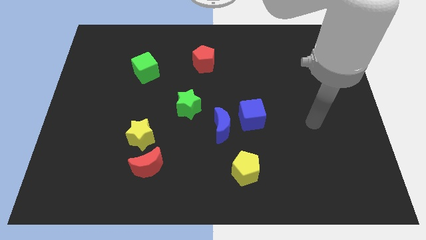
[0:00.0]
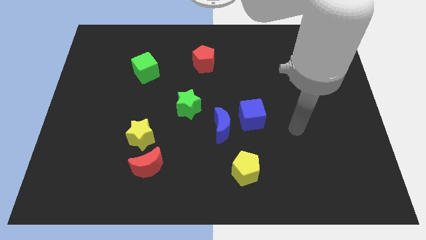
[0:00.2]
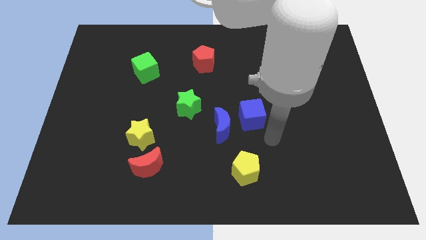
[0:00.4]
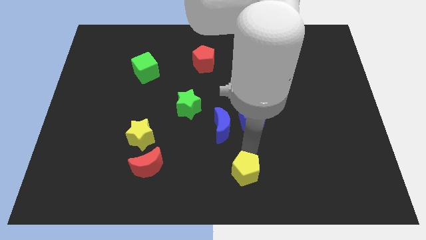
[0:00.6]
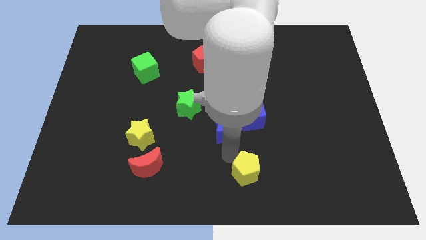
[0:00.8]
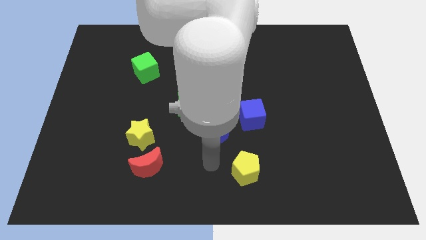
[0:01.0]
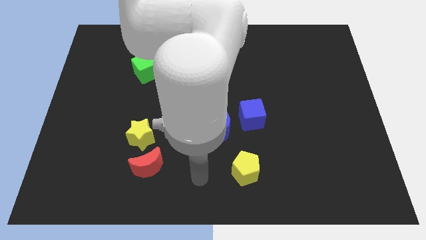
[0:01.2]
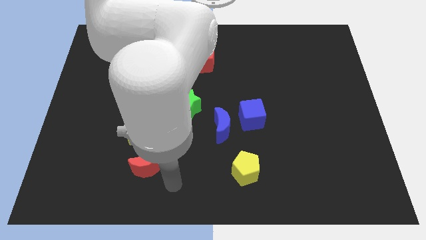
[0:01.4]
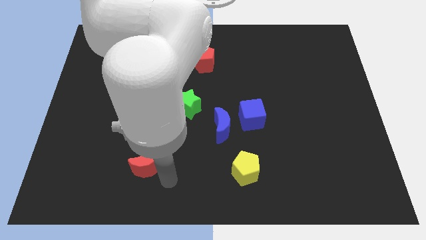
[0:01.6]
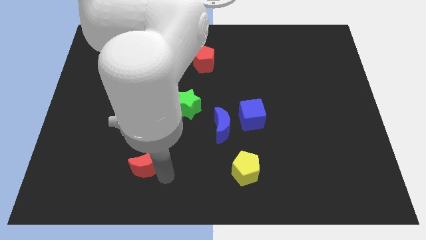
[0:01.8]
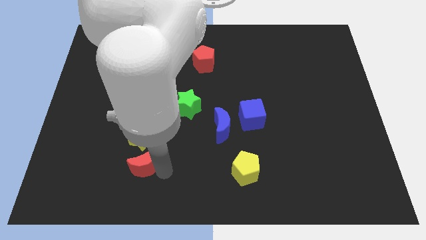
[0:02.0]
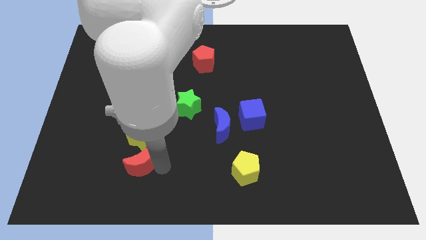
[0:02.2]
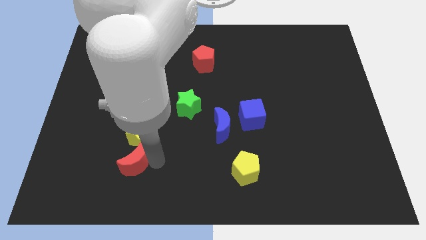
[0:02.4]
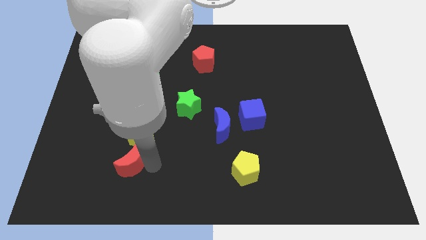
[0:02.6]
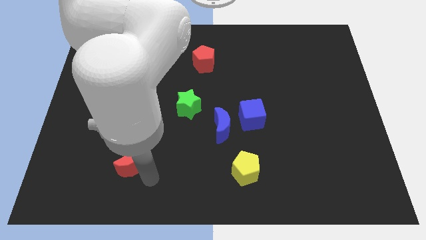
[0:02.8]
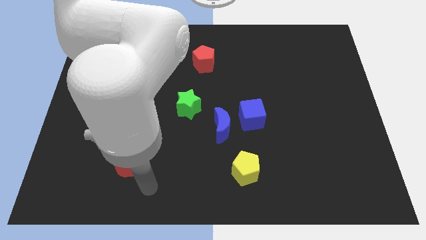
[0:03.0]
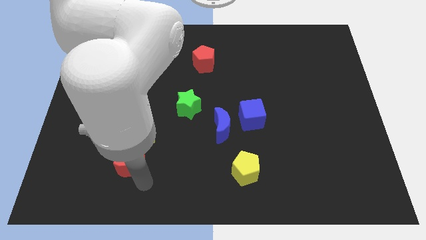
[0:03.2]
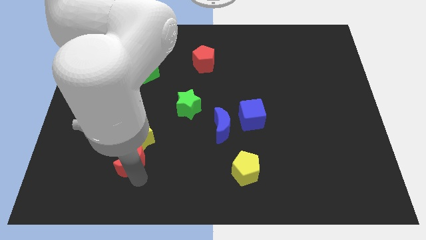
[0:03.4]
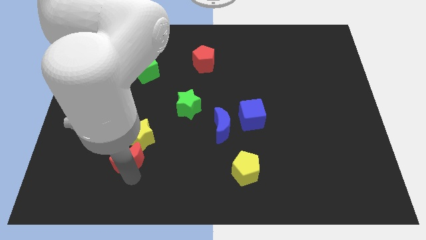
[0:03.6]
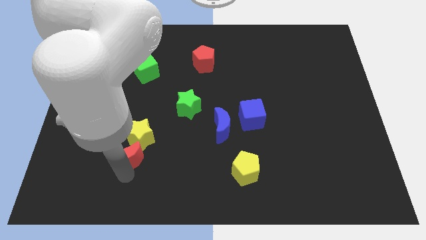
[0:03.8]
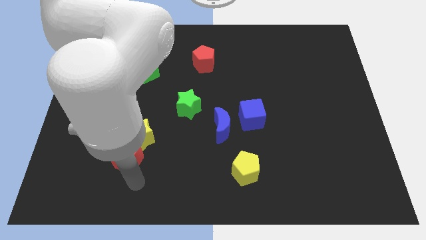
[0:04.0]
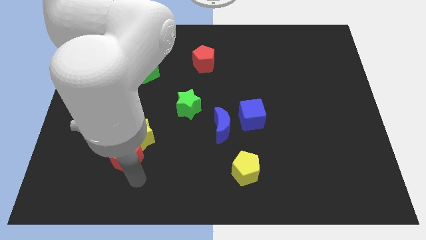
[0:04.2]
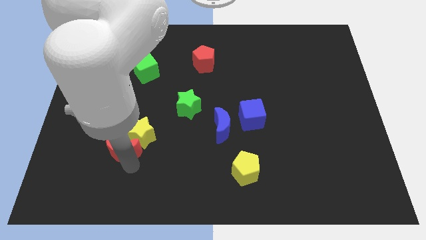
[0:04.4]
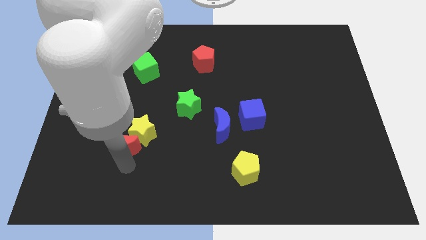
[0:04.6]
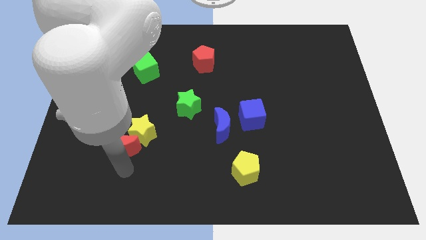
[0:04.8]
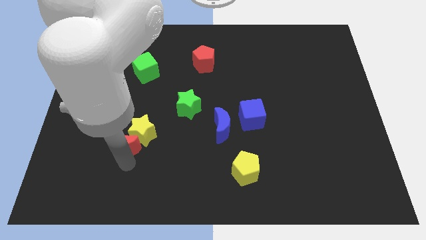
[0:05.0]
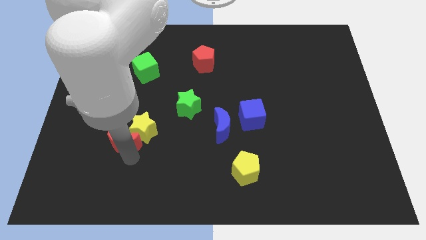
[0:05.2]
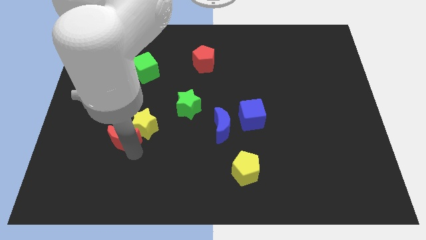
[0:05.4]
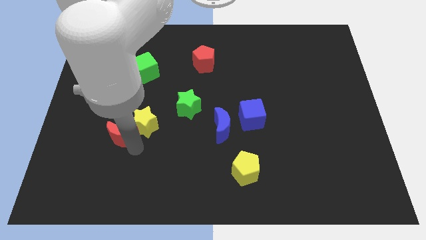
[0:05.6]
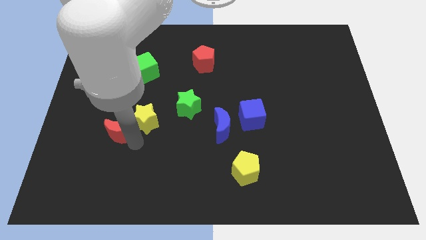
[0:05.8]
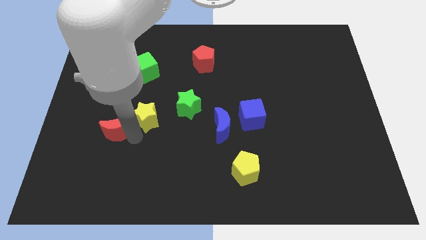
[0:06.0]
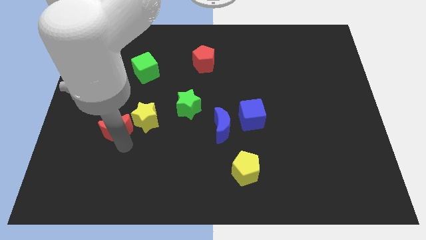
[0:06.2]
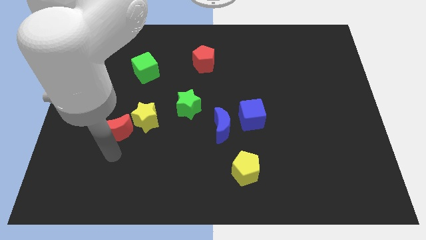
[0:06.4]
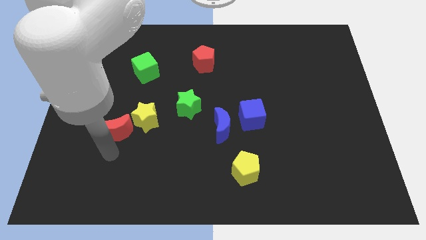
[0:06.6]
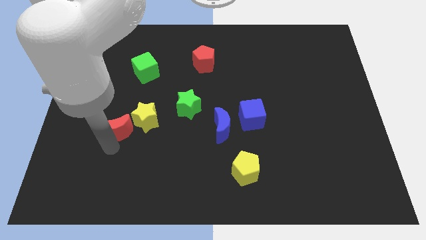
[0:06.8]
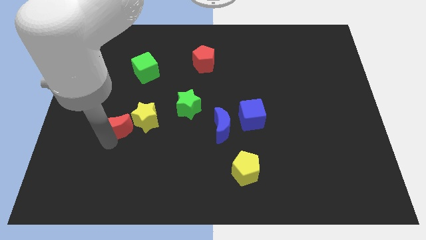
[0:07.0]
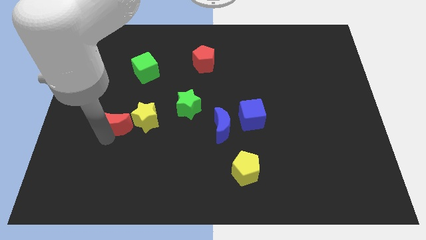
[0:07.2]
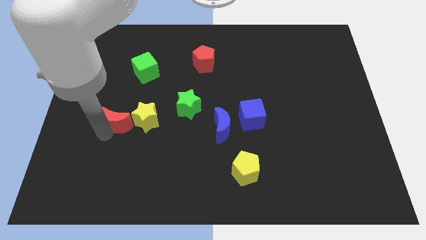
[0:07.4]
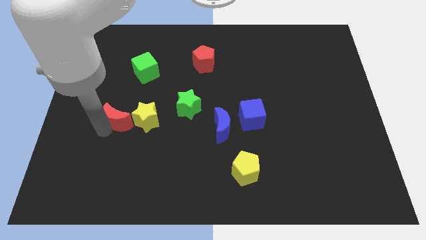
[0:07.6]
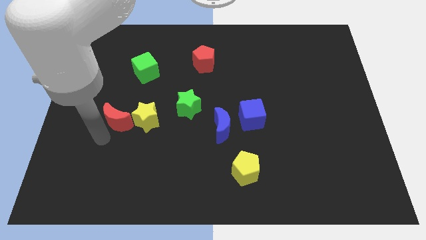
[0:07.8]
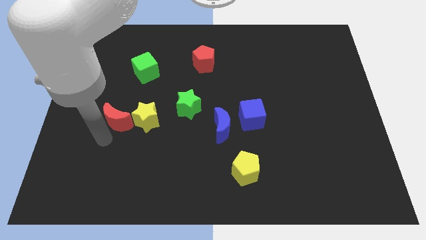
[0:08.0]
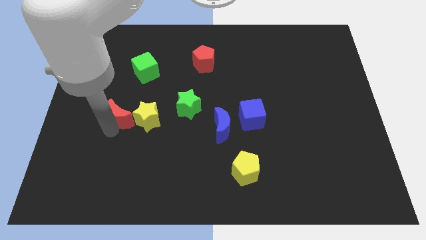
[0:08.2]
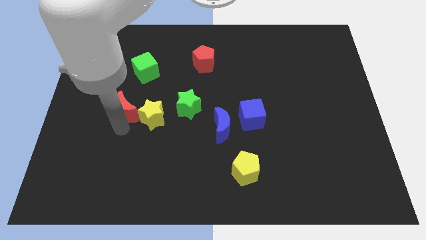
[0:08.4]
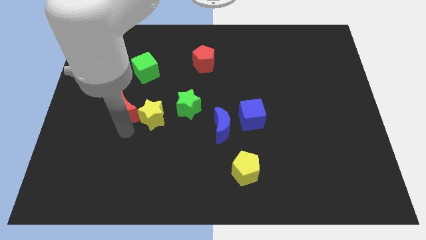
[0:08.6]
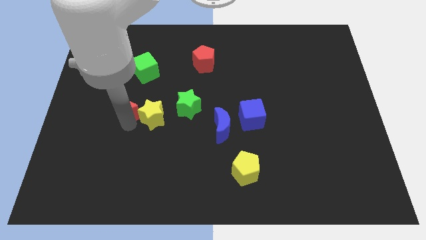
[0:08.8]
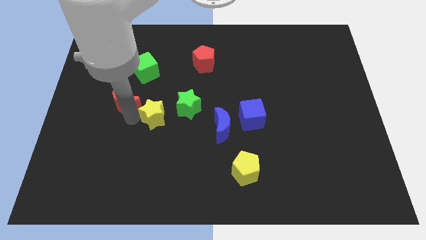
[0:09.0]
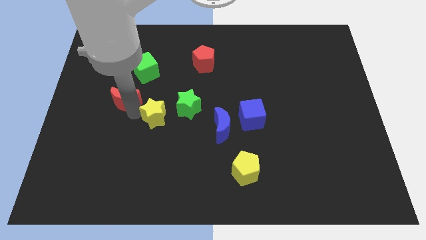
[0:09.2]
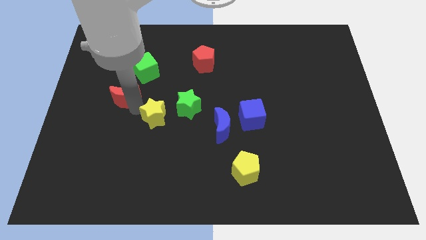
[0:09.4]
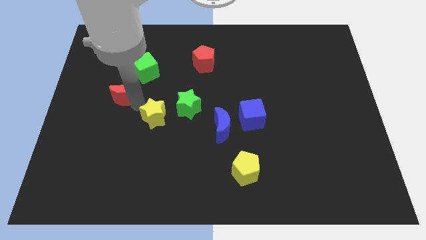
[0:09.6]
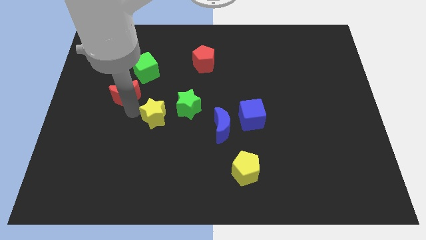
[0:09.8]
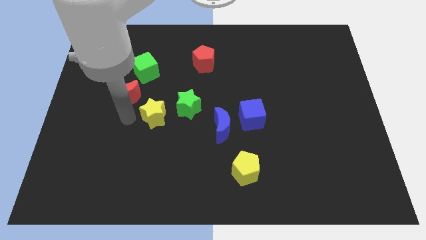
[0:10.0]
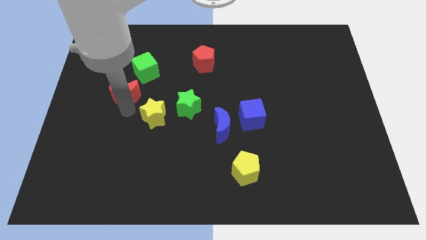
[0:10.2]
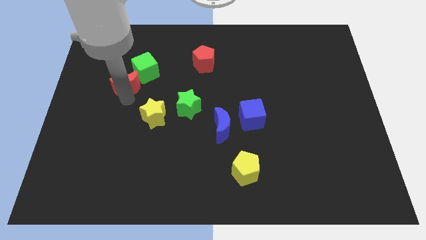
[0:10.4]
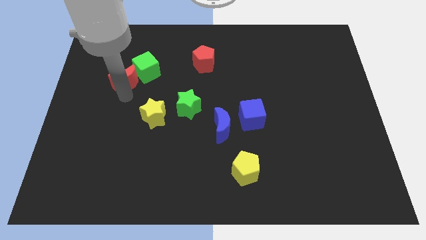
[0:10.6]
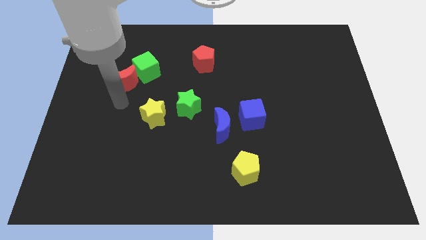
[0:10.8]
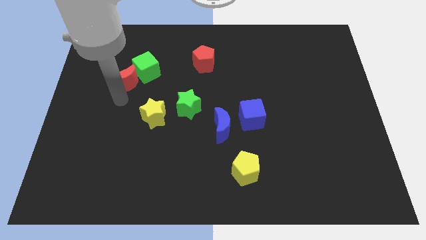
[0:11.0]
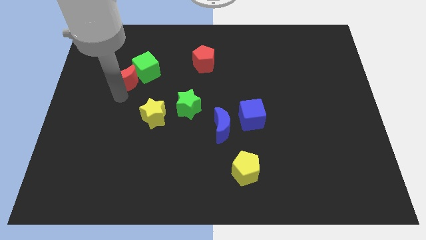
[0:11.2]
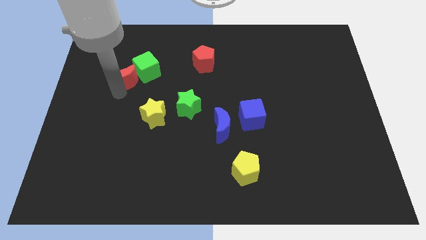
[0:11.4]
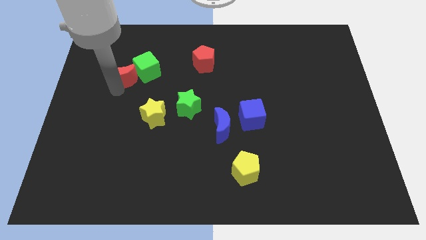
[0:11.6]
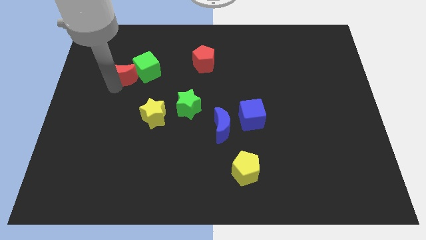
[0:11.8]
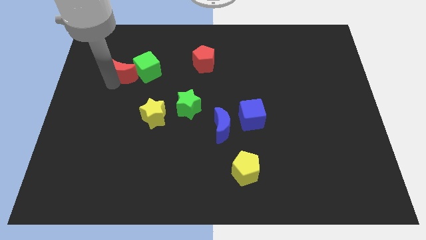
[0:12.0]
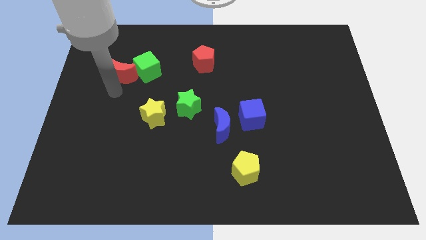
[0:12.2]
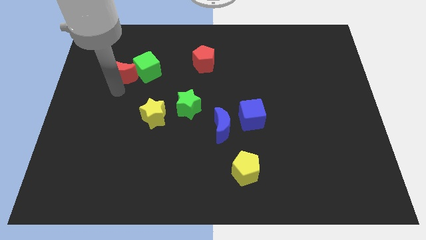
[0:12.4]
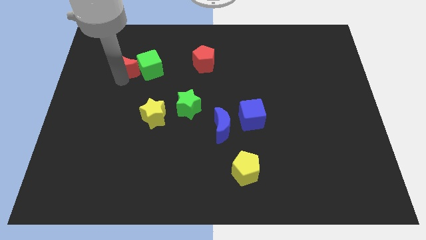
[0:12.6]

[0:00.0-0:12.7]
push the red moon to the top left of the green cube

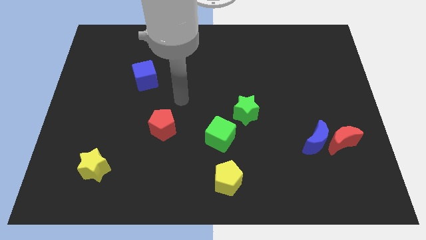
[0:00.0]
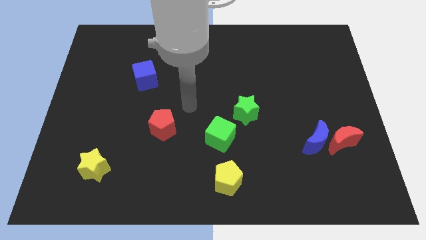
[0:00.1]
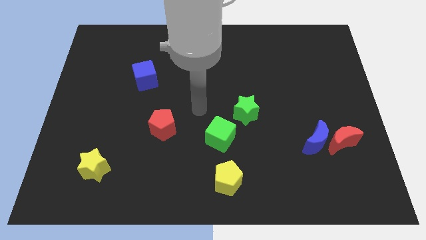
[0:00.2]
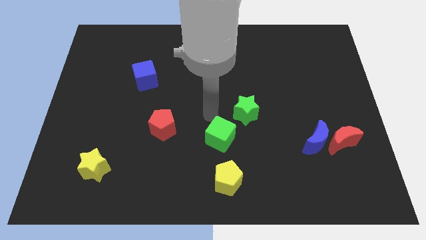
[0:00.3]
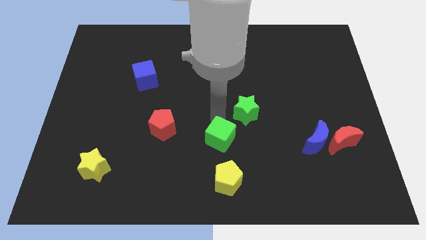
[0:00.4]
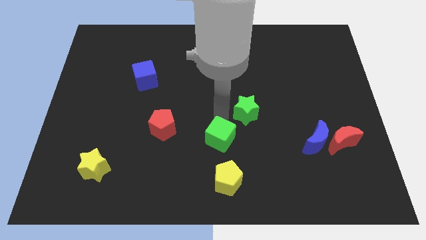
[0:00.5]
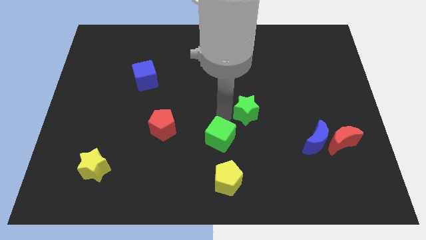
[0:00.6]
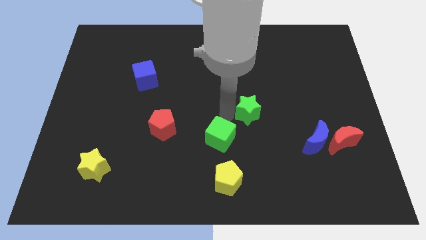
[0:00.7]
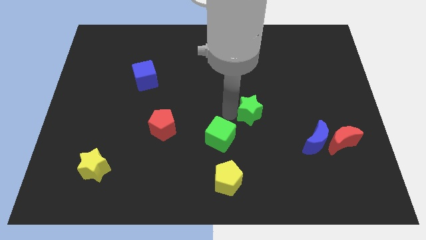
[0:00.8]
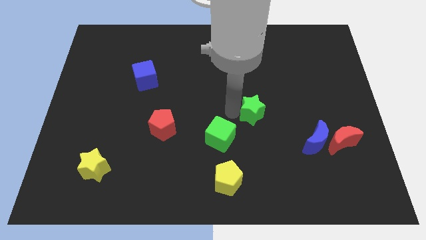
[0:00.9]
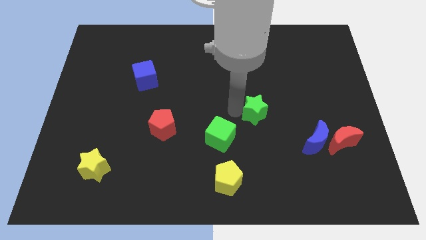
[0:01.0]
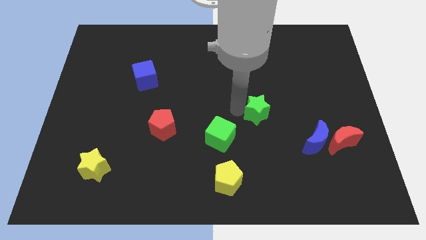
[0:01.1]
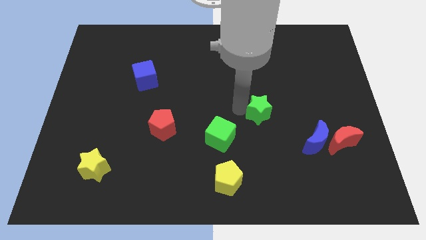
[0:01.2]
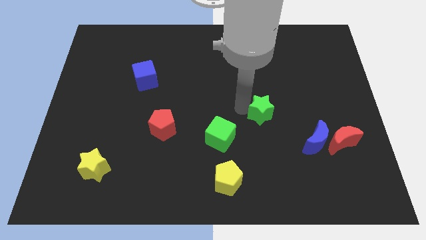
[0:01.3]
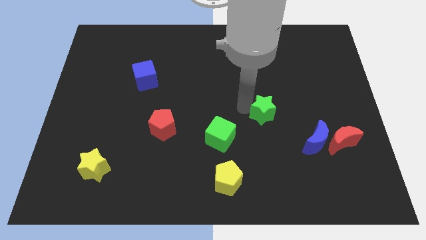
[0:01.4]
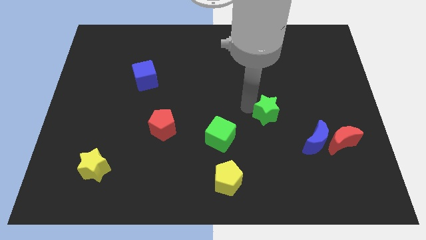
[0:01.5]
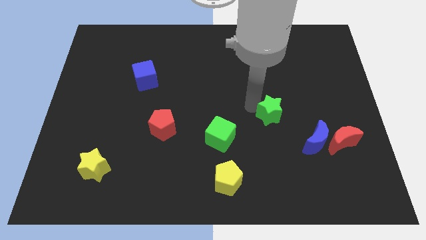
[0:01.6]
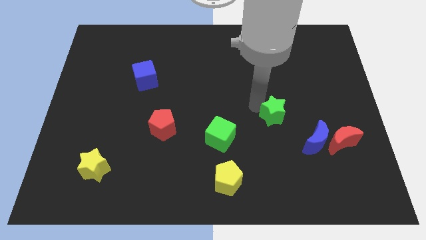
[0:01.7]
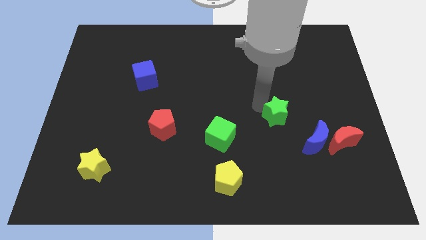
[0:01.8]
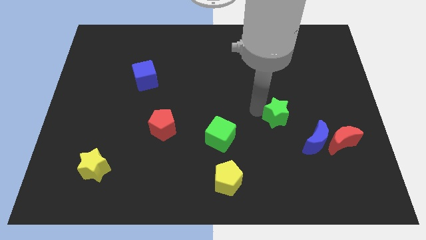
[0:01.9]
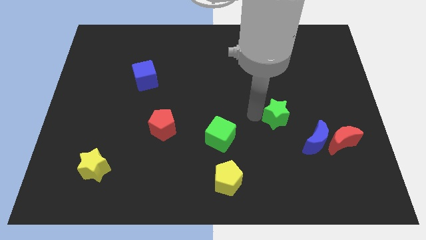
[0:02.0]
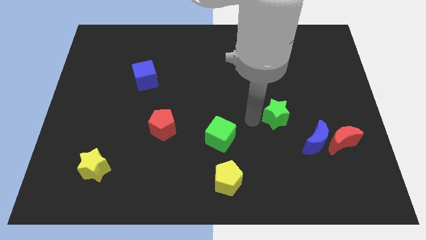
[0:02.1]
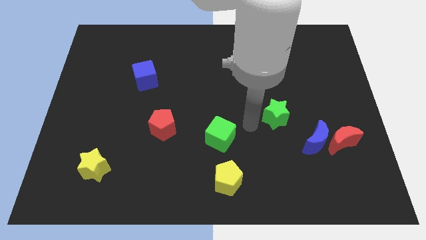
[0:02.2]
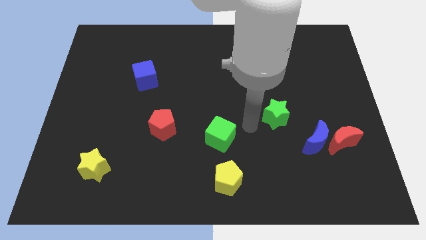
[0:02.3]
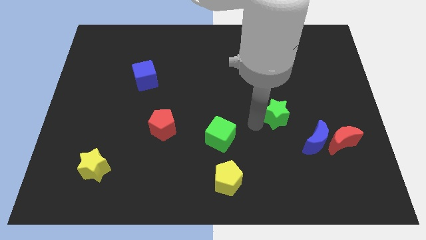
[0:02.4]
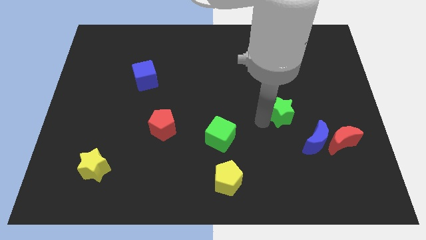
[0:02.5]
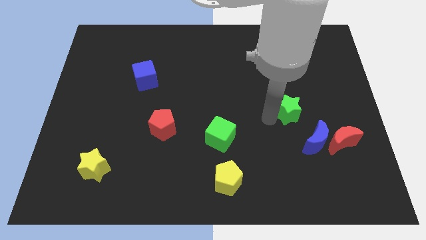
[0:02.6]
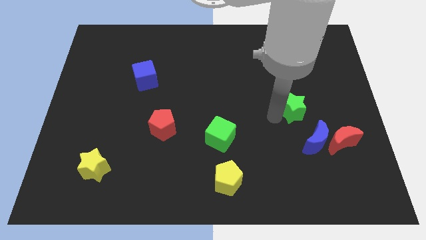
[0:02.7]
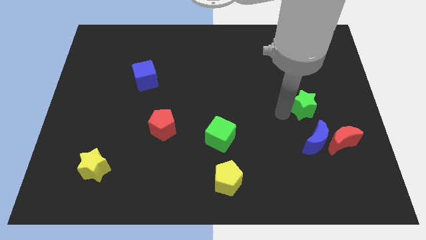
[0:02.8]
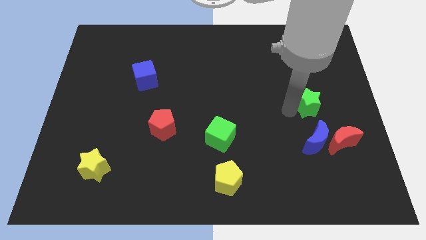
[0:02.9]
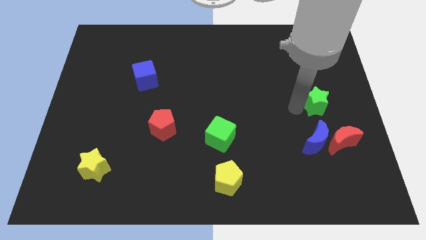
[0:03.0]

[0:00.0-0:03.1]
slide the green star above the red moon
